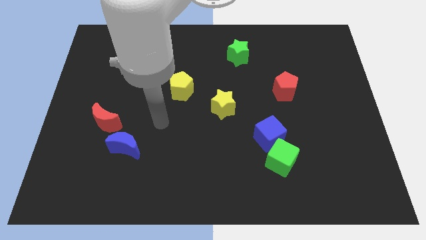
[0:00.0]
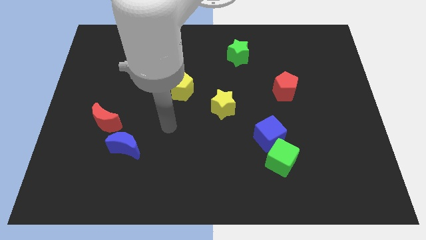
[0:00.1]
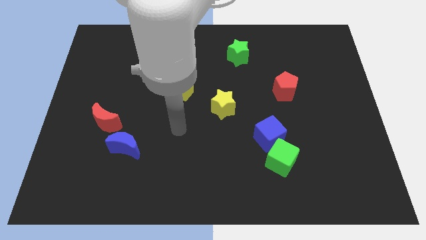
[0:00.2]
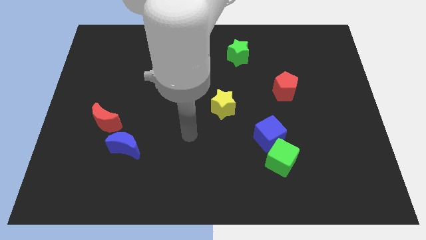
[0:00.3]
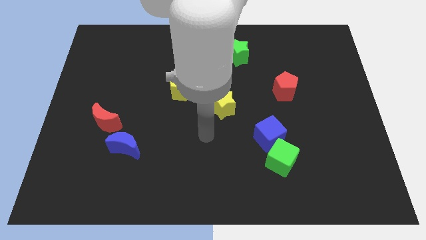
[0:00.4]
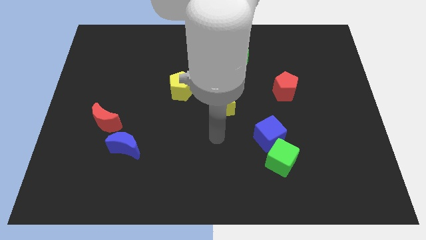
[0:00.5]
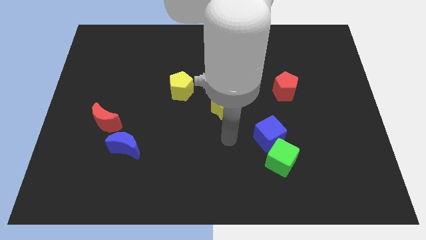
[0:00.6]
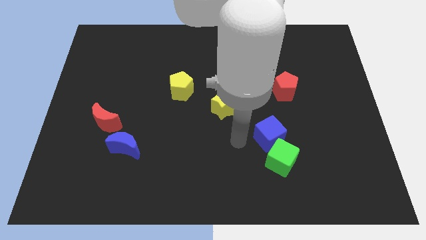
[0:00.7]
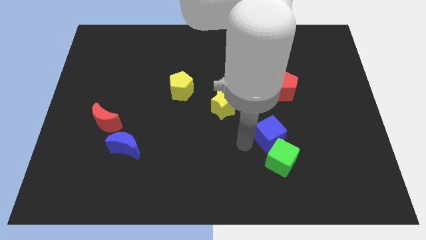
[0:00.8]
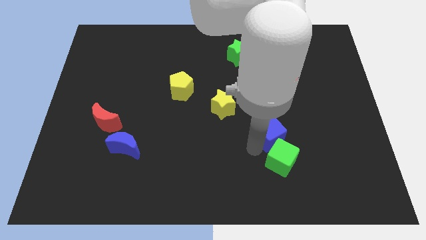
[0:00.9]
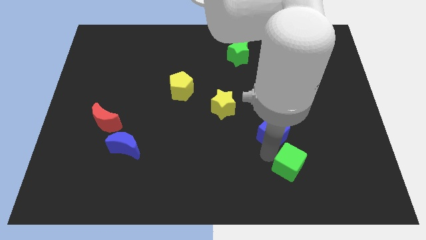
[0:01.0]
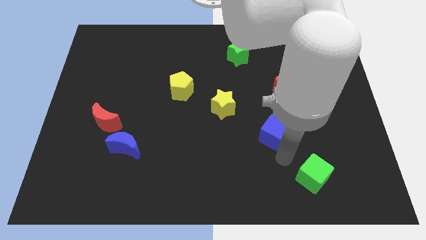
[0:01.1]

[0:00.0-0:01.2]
pull the blue cube apart from the green cube

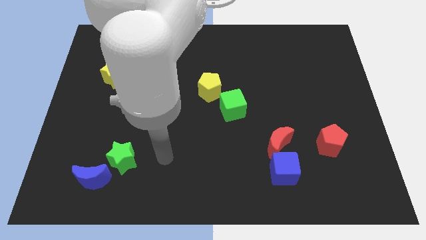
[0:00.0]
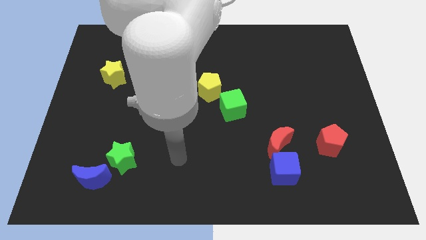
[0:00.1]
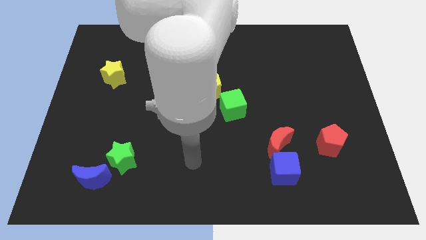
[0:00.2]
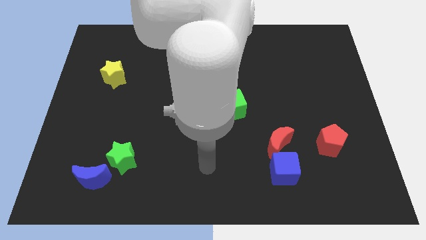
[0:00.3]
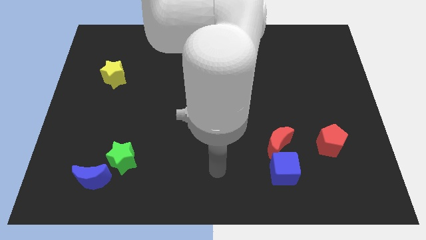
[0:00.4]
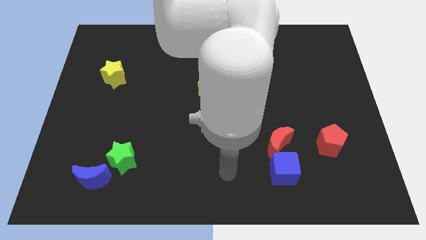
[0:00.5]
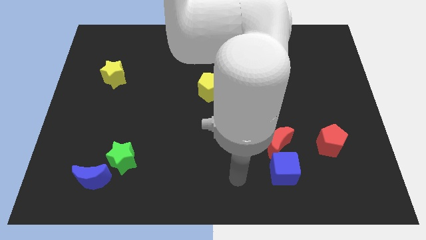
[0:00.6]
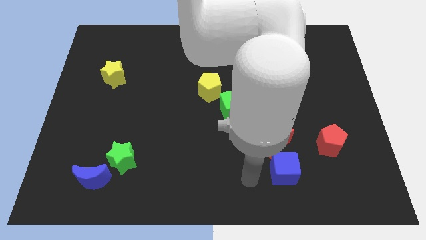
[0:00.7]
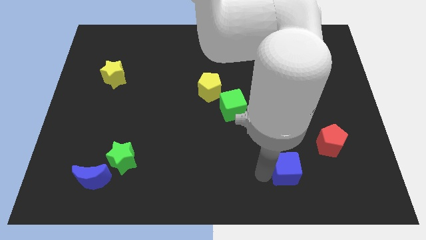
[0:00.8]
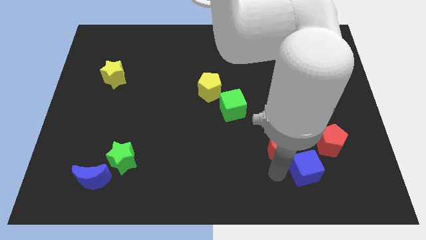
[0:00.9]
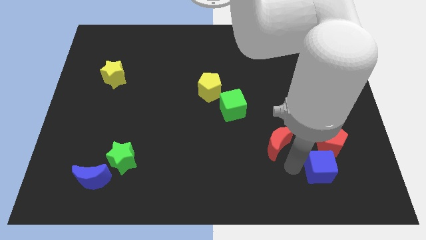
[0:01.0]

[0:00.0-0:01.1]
move the red moon away from the blue cube

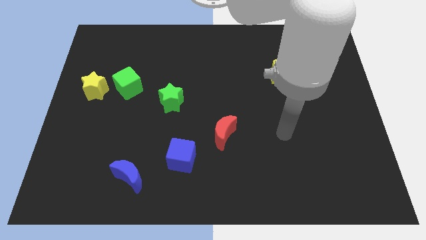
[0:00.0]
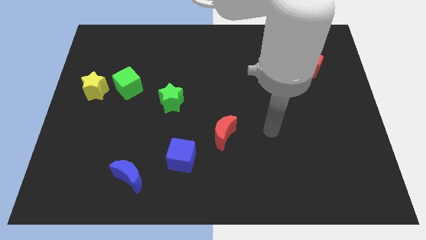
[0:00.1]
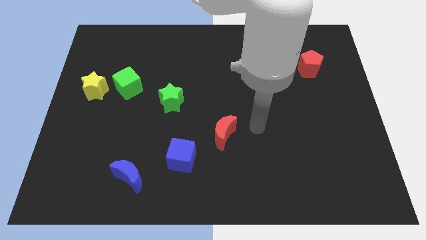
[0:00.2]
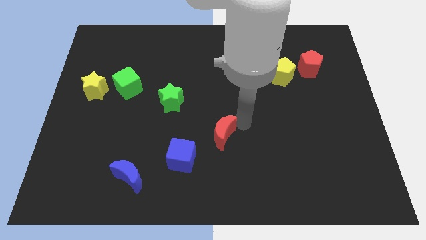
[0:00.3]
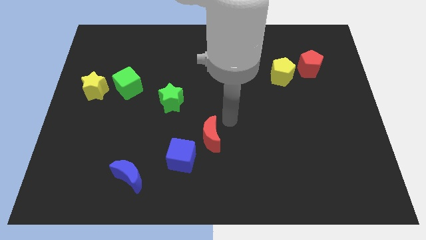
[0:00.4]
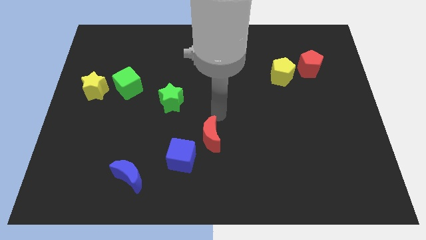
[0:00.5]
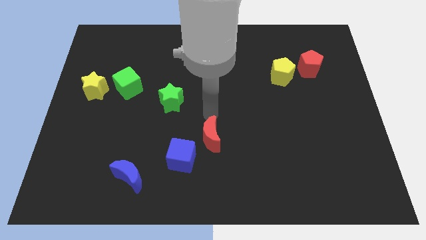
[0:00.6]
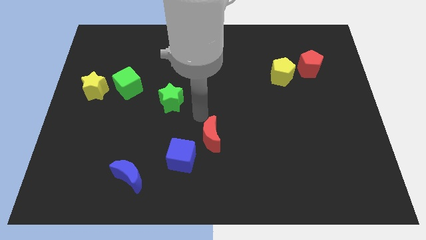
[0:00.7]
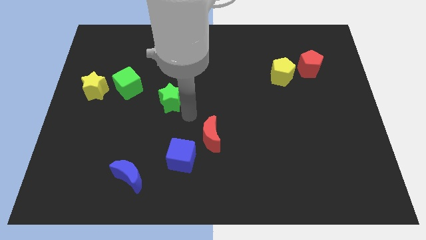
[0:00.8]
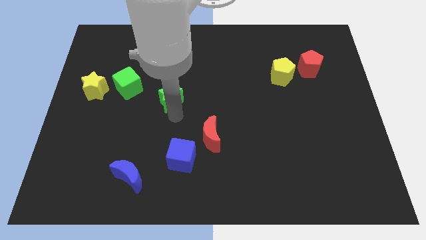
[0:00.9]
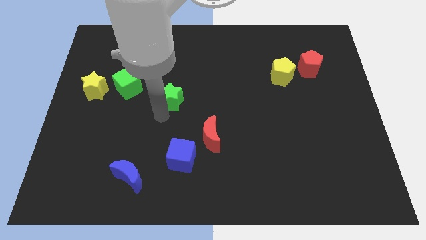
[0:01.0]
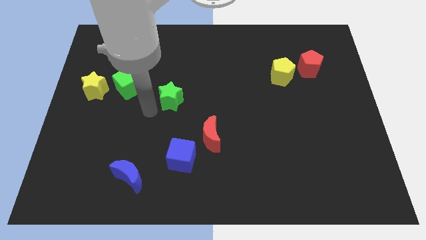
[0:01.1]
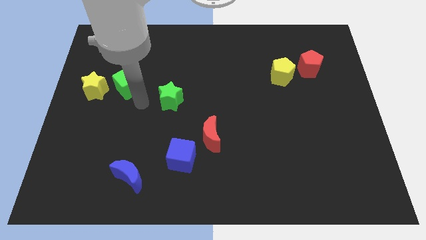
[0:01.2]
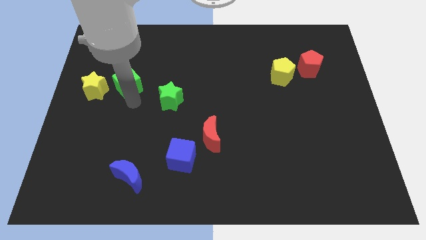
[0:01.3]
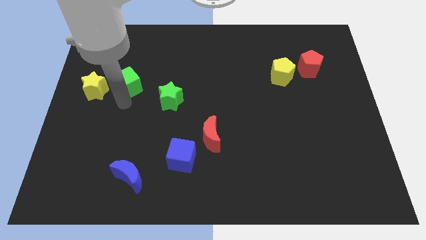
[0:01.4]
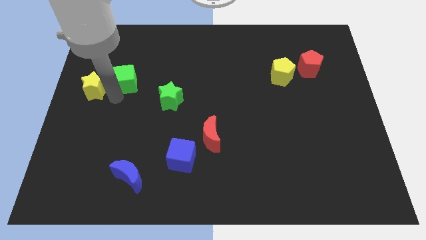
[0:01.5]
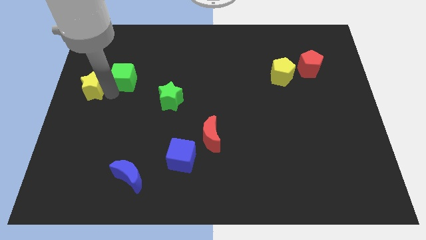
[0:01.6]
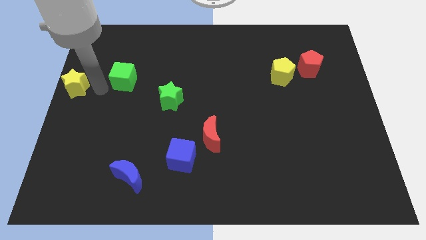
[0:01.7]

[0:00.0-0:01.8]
pull the green cube apart from the yellow star

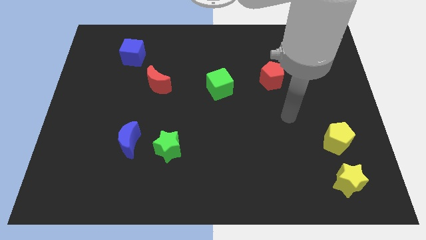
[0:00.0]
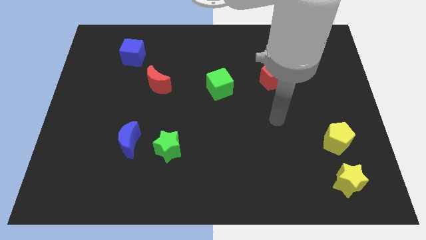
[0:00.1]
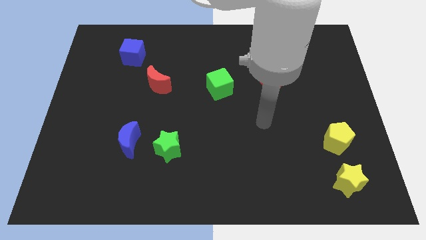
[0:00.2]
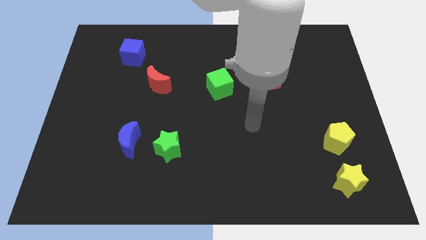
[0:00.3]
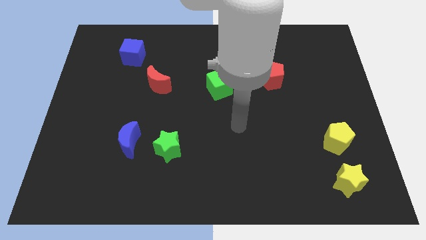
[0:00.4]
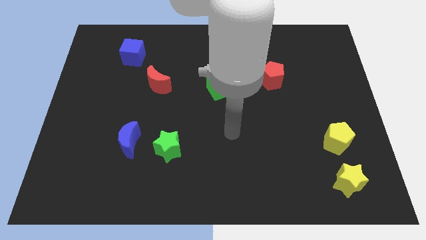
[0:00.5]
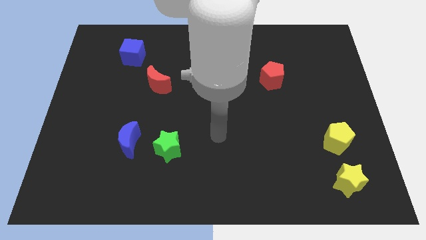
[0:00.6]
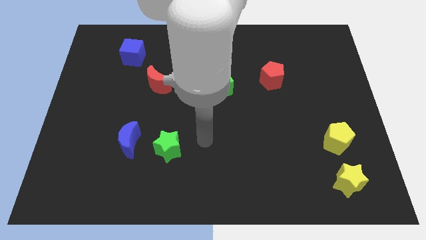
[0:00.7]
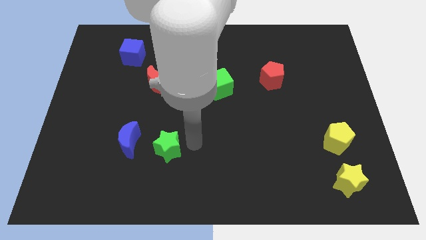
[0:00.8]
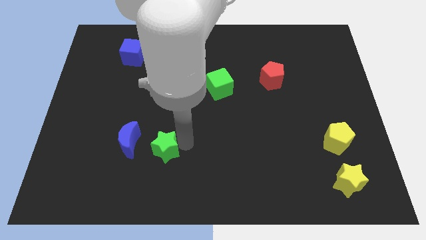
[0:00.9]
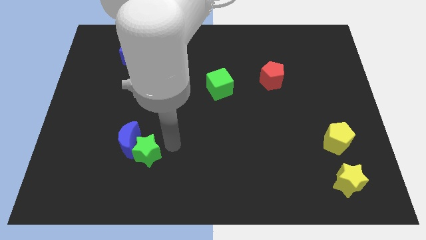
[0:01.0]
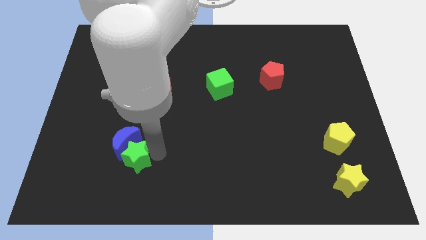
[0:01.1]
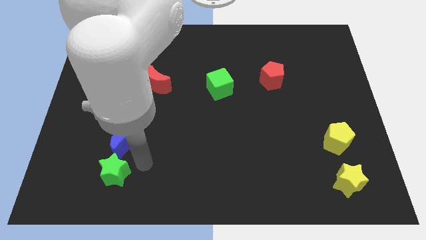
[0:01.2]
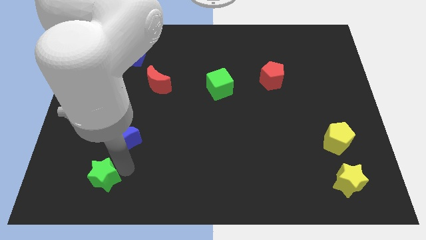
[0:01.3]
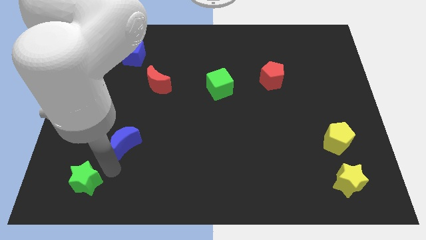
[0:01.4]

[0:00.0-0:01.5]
separate the blue moon from the green star

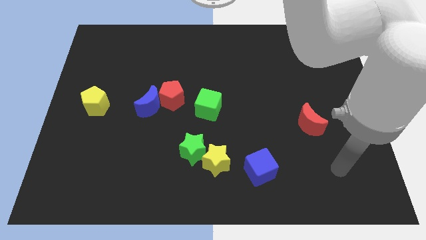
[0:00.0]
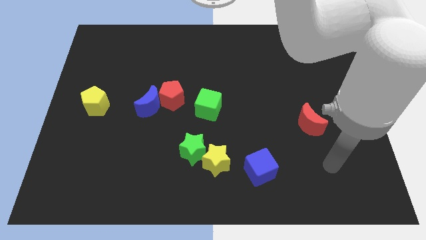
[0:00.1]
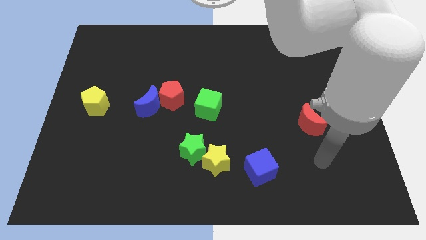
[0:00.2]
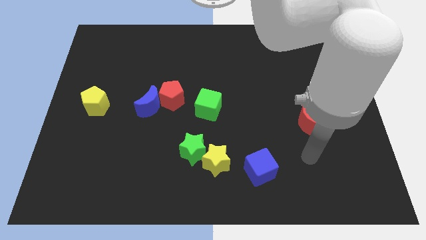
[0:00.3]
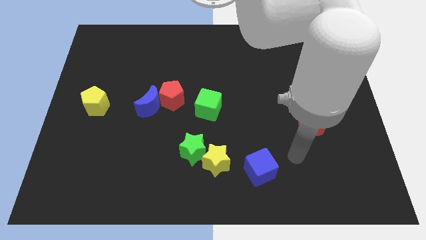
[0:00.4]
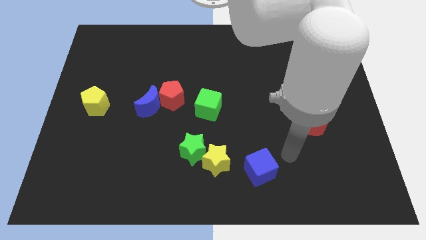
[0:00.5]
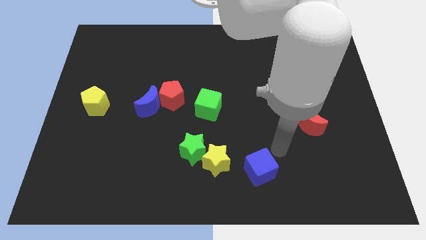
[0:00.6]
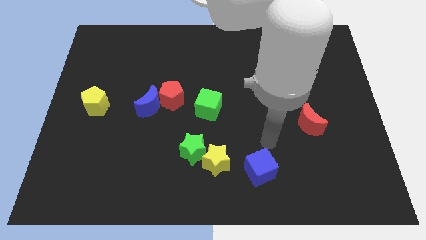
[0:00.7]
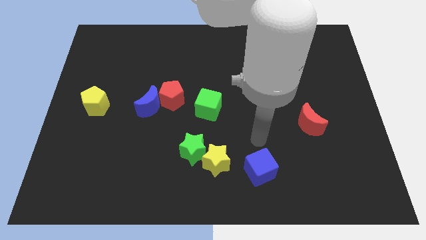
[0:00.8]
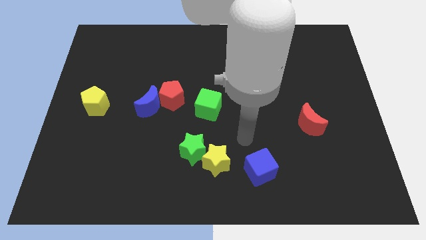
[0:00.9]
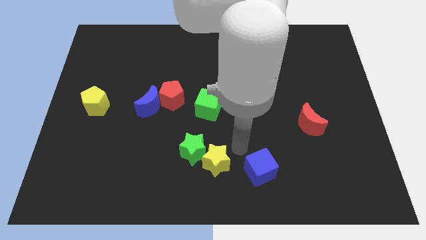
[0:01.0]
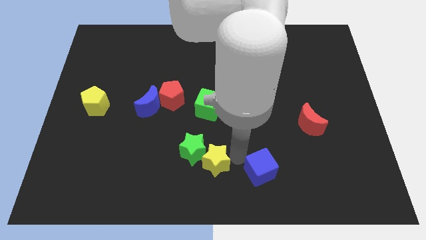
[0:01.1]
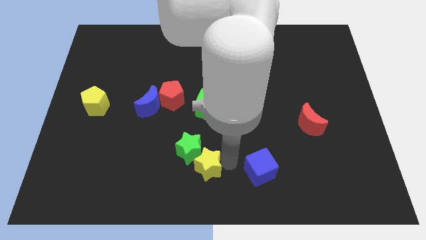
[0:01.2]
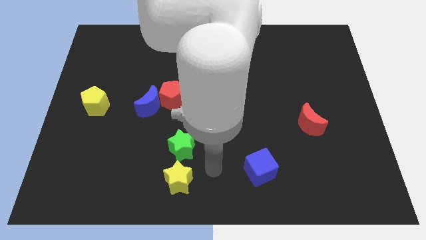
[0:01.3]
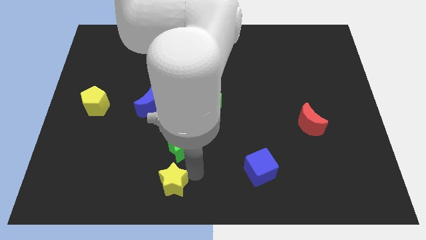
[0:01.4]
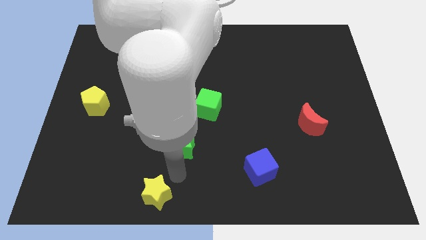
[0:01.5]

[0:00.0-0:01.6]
move the green star away from the yellow star

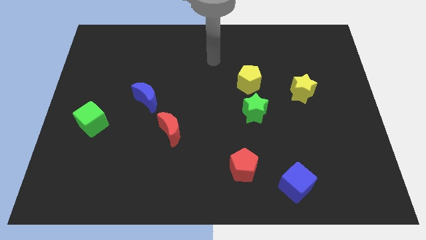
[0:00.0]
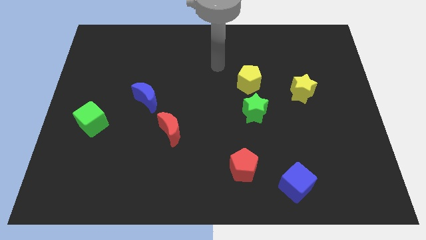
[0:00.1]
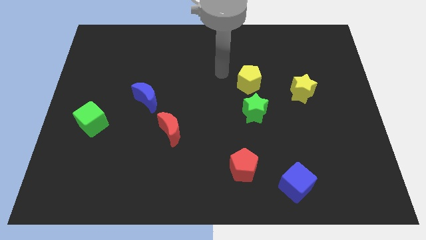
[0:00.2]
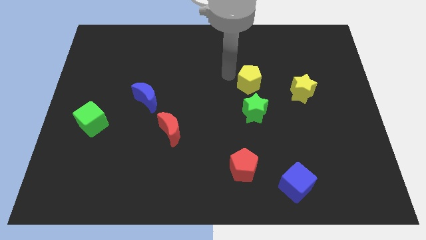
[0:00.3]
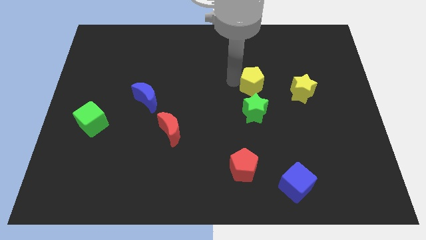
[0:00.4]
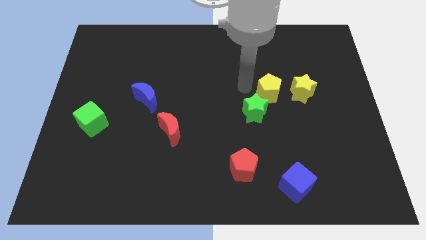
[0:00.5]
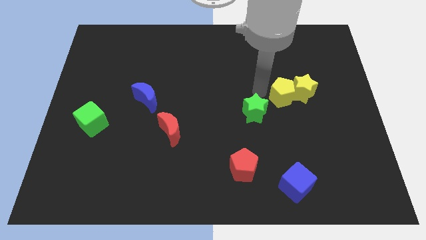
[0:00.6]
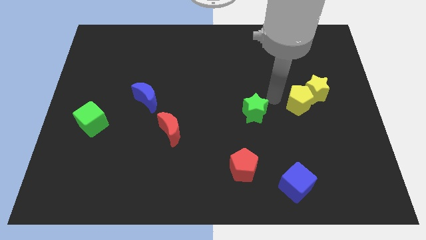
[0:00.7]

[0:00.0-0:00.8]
move the green star away from the yellow pentagon

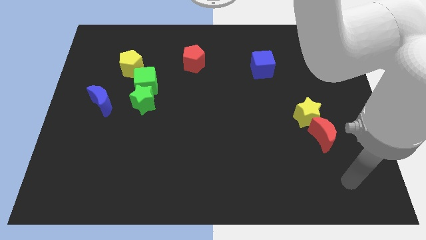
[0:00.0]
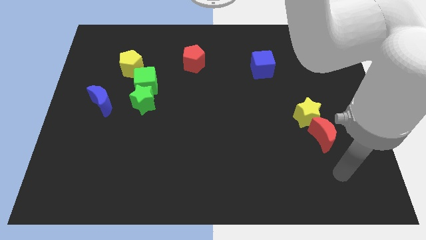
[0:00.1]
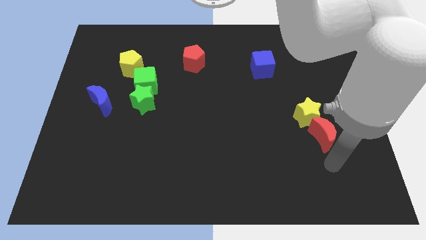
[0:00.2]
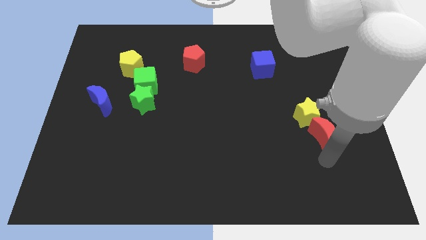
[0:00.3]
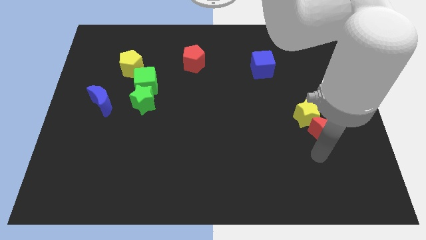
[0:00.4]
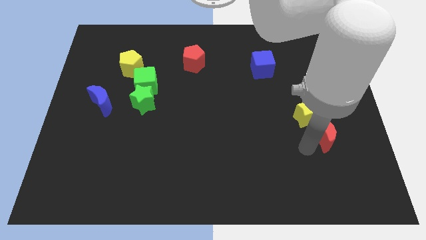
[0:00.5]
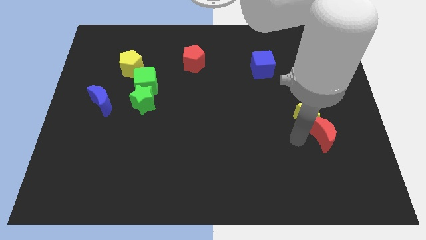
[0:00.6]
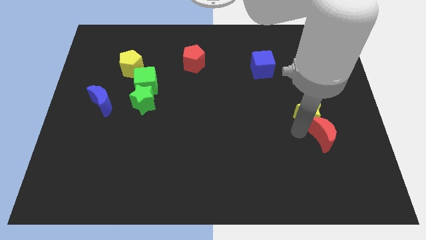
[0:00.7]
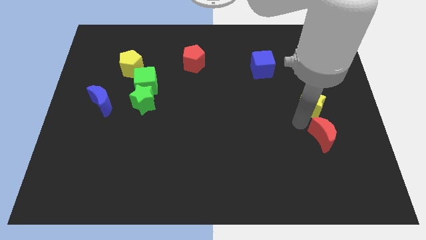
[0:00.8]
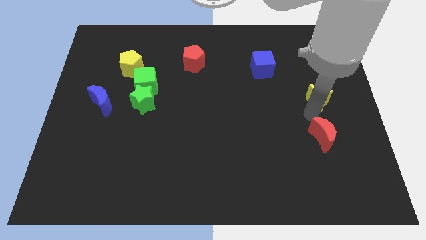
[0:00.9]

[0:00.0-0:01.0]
pull the red moon apart from the yellow star

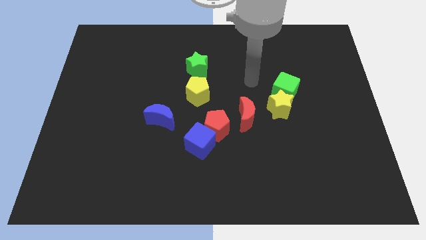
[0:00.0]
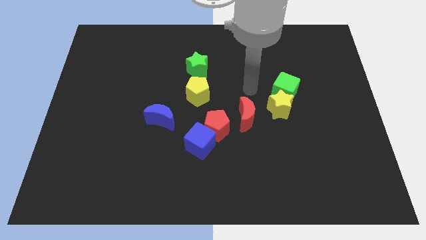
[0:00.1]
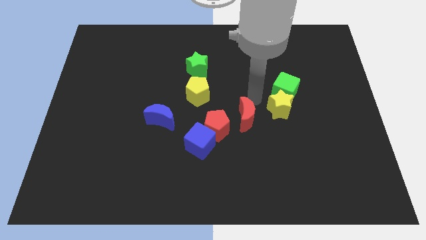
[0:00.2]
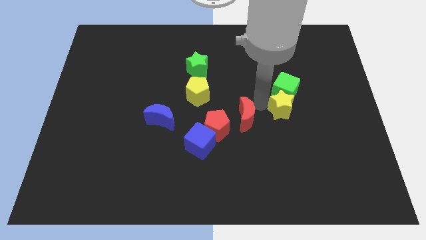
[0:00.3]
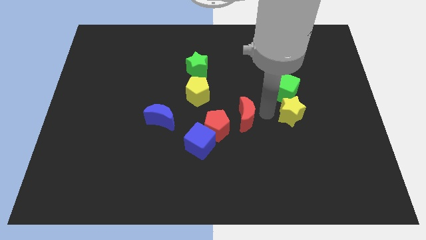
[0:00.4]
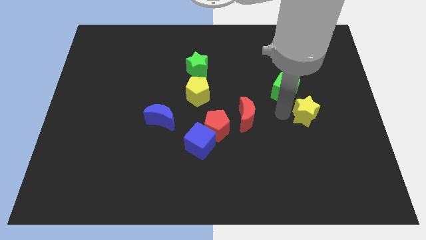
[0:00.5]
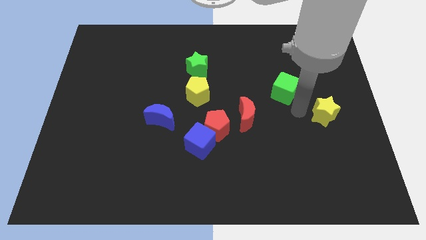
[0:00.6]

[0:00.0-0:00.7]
separate the green cube from the yellow star
